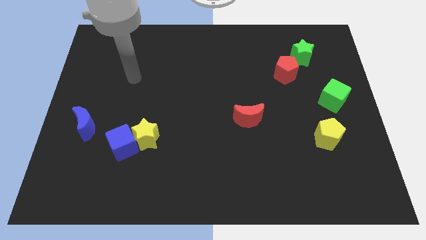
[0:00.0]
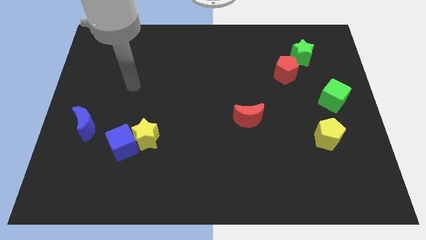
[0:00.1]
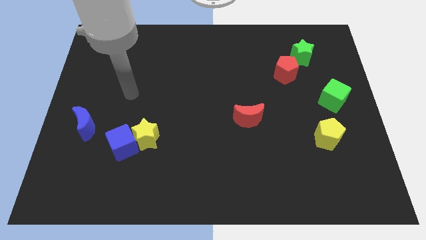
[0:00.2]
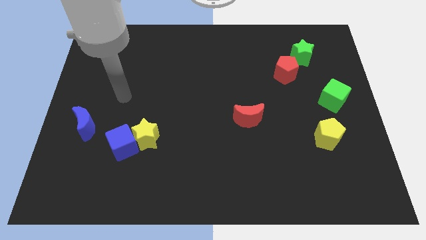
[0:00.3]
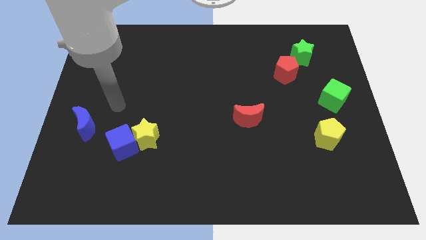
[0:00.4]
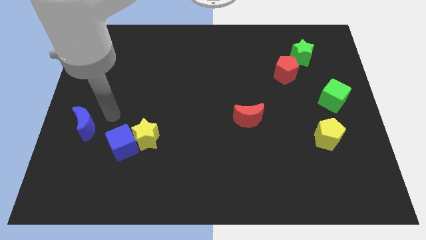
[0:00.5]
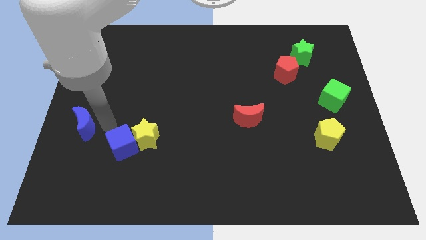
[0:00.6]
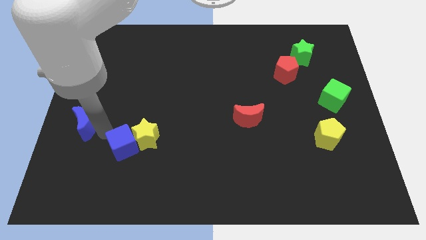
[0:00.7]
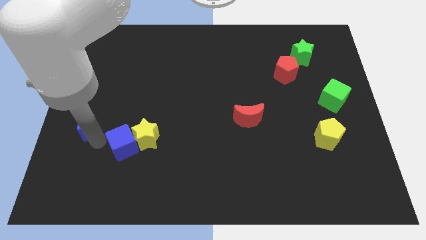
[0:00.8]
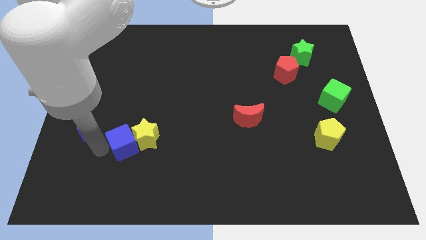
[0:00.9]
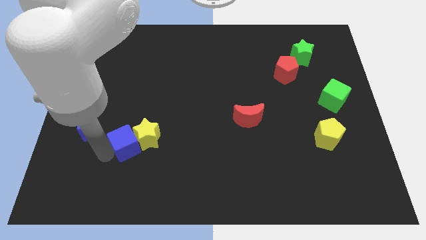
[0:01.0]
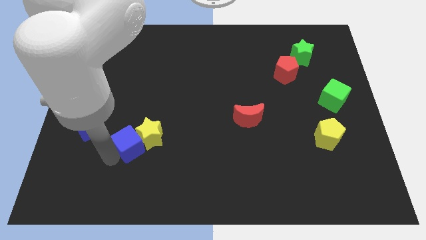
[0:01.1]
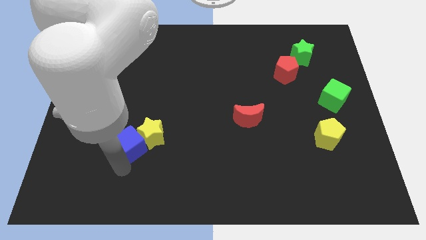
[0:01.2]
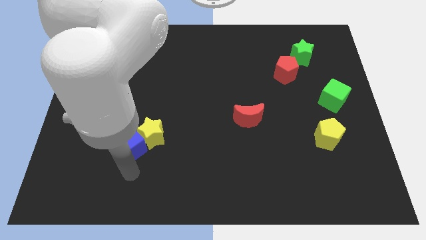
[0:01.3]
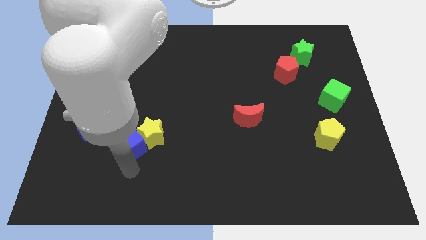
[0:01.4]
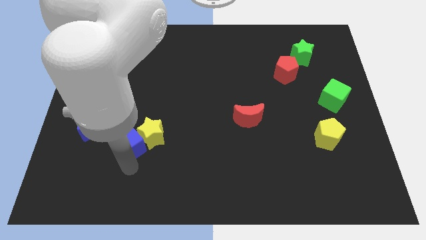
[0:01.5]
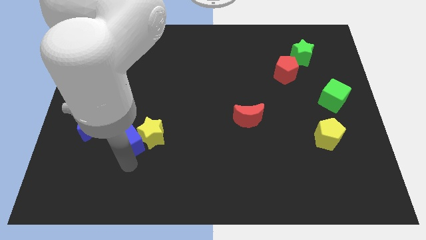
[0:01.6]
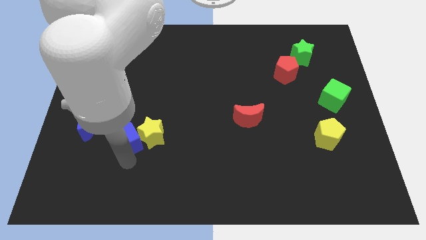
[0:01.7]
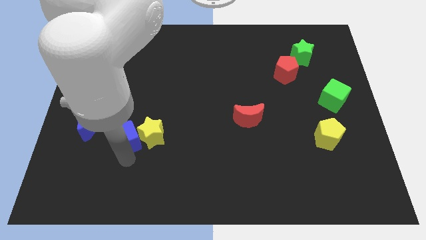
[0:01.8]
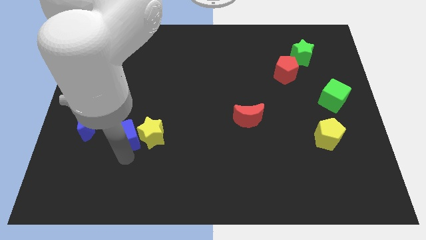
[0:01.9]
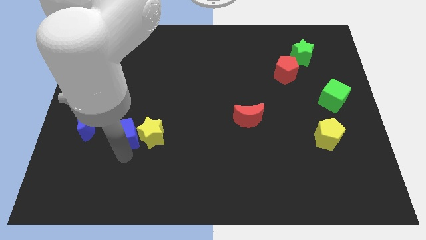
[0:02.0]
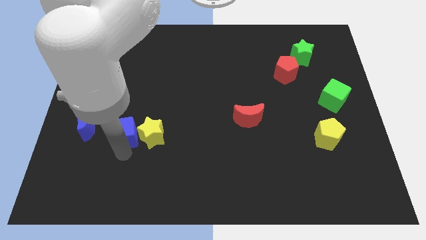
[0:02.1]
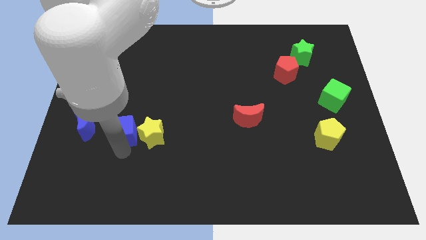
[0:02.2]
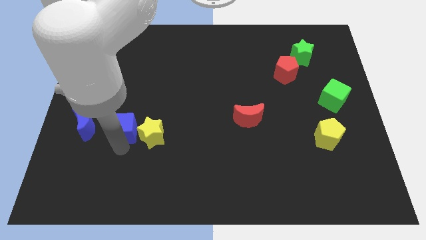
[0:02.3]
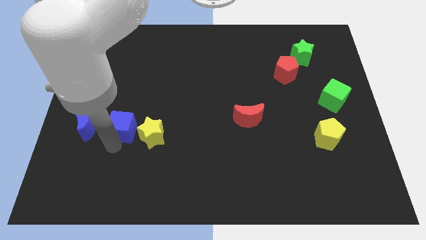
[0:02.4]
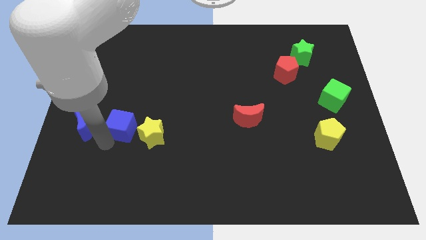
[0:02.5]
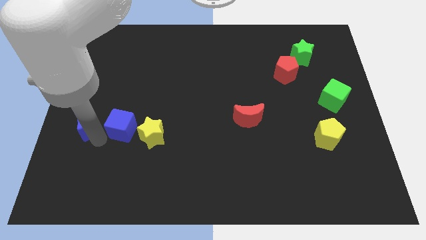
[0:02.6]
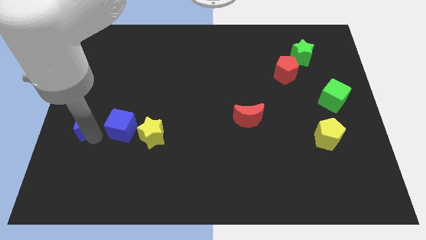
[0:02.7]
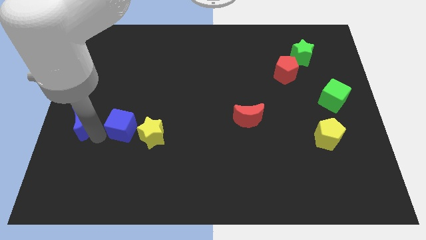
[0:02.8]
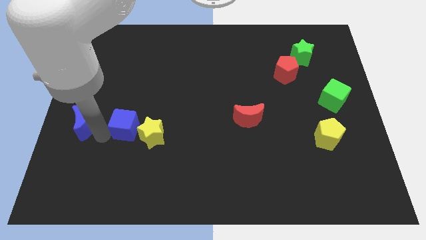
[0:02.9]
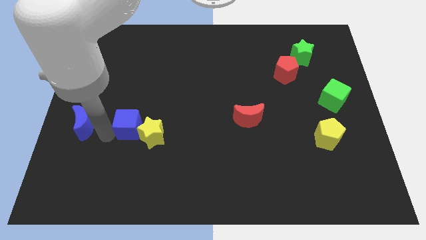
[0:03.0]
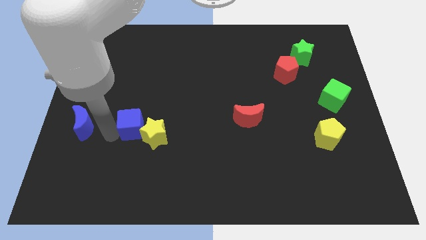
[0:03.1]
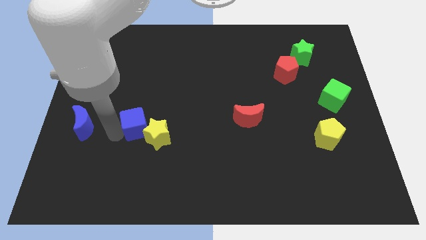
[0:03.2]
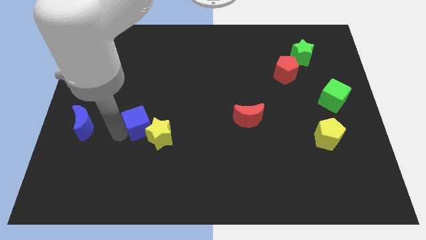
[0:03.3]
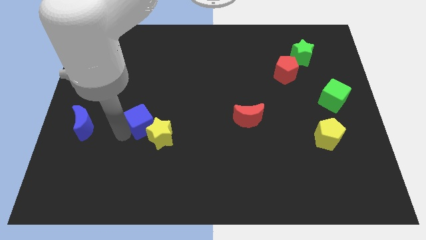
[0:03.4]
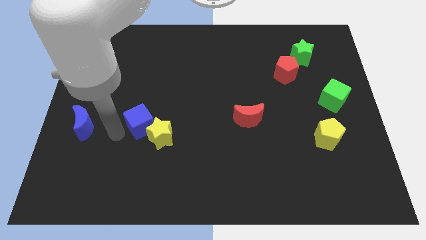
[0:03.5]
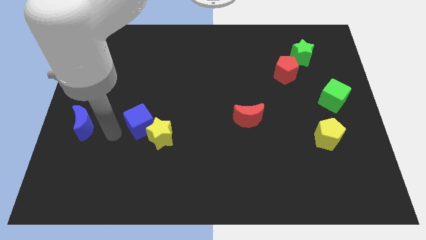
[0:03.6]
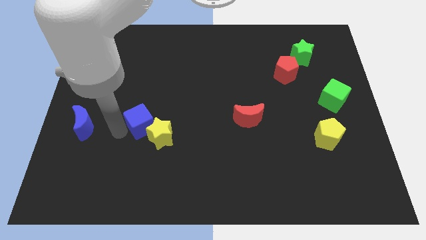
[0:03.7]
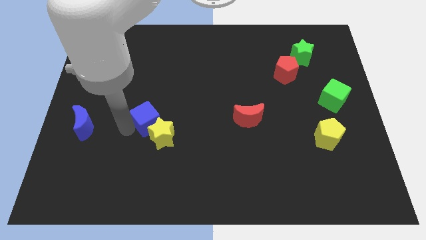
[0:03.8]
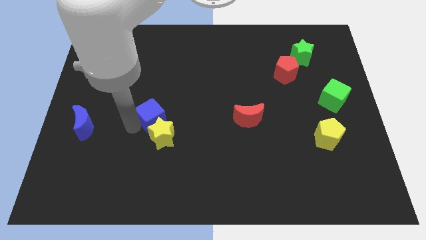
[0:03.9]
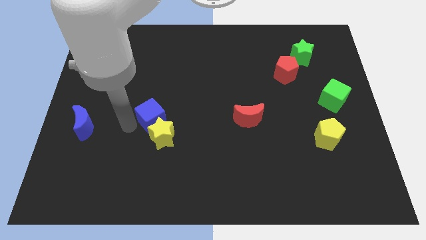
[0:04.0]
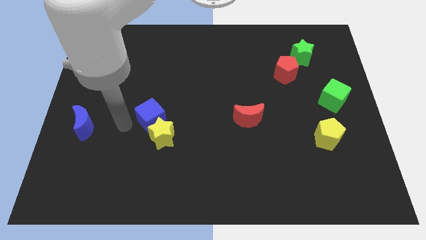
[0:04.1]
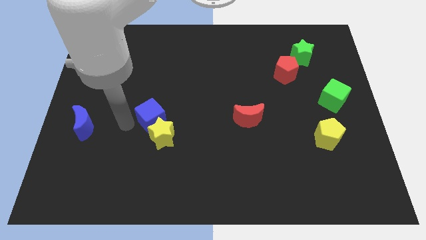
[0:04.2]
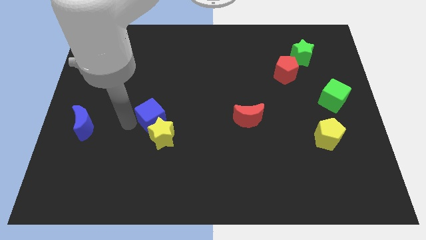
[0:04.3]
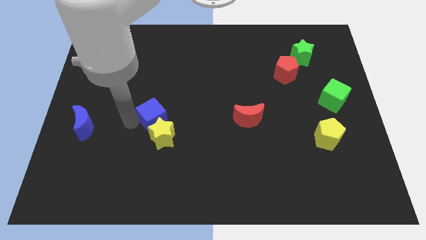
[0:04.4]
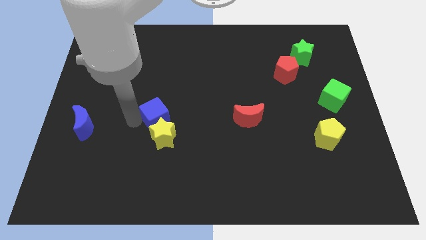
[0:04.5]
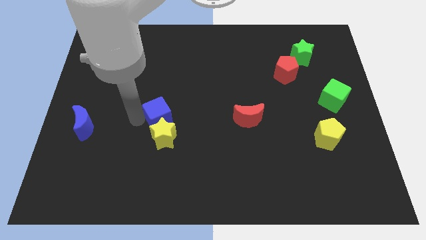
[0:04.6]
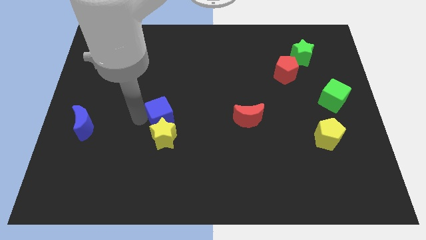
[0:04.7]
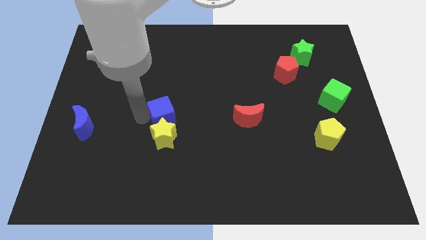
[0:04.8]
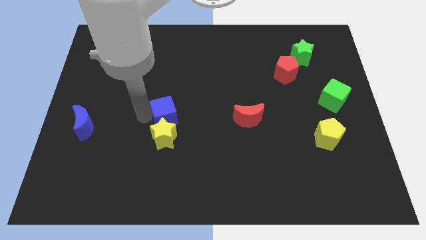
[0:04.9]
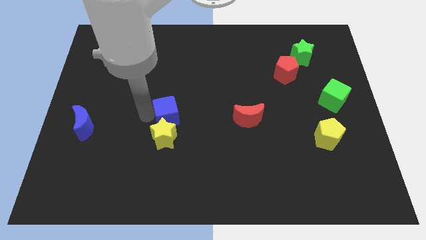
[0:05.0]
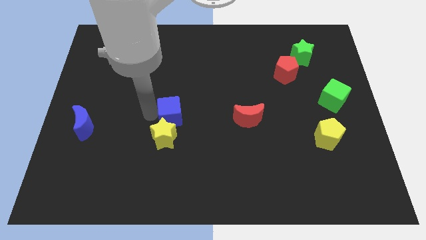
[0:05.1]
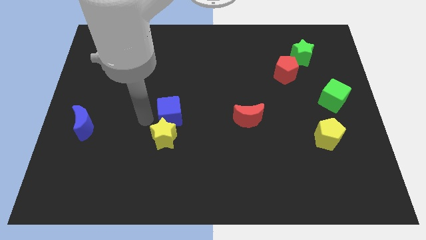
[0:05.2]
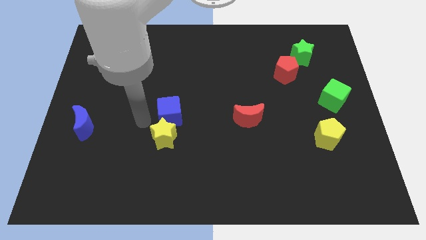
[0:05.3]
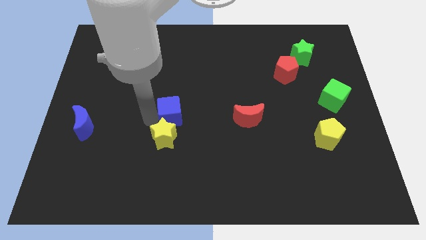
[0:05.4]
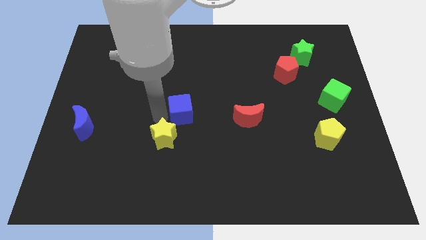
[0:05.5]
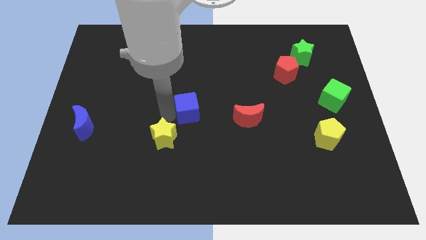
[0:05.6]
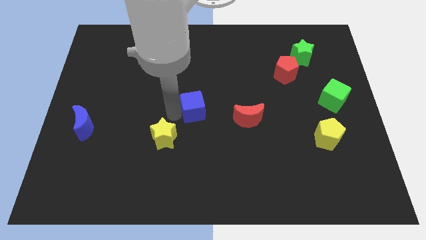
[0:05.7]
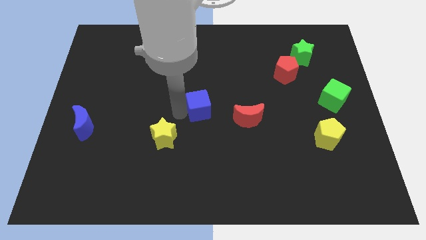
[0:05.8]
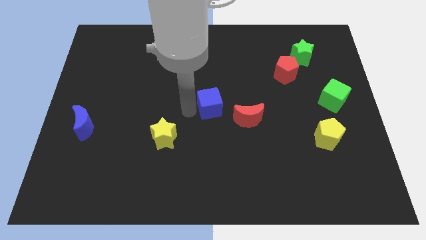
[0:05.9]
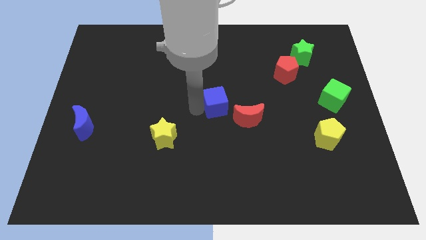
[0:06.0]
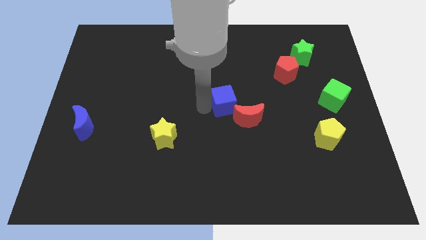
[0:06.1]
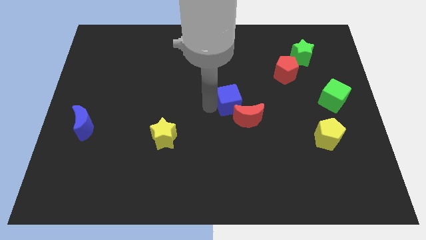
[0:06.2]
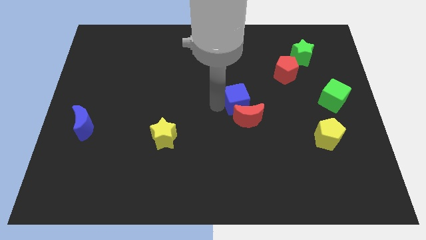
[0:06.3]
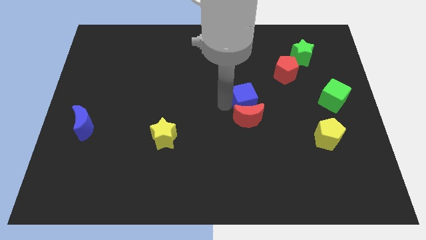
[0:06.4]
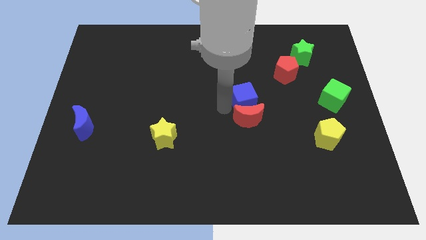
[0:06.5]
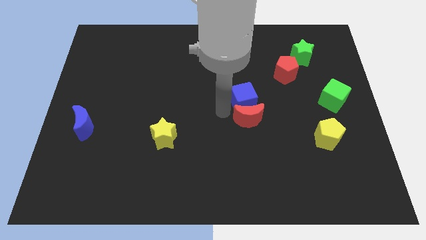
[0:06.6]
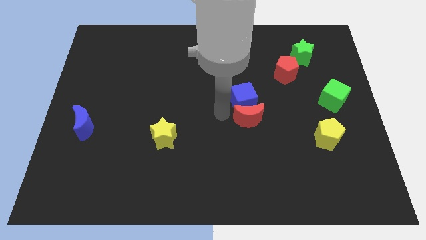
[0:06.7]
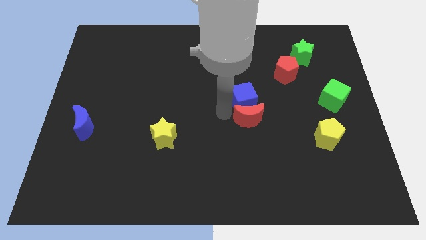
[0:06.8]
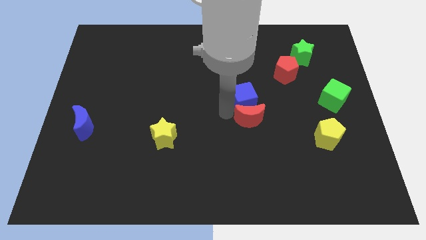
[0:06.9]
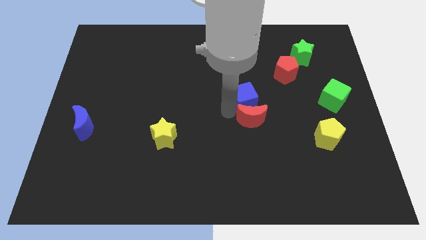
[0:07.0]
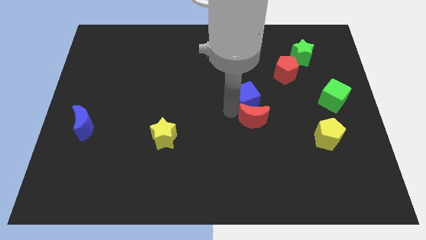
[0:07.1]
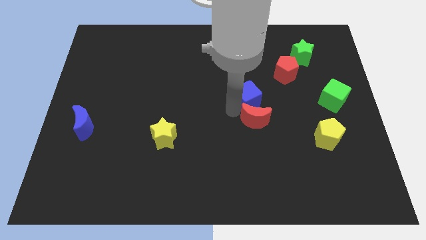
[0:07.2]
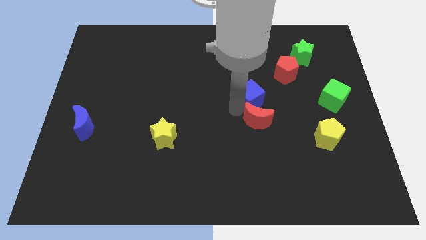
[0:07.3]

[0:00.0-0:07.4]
put the blue cube diagonally down and to the left of the red pentagon
